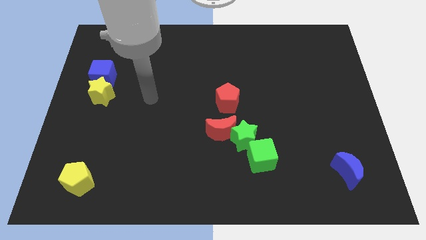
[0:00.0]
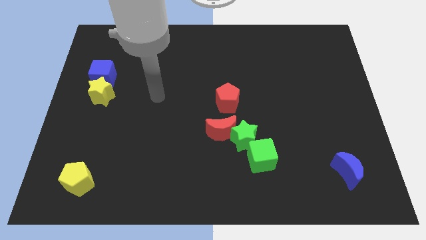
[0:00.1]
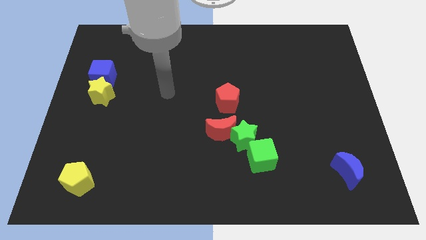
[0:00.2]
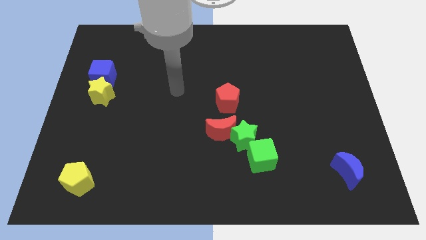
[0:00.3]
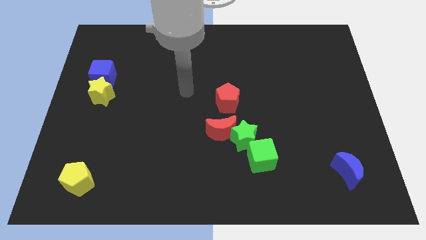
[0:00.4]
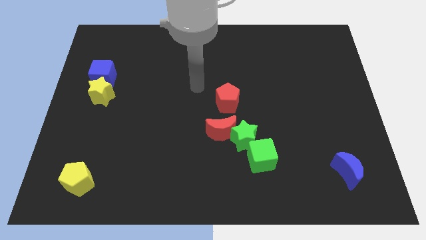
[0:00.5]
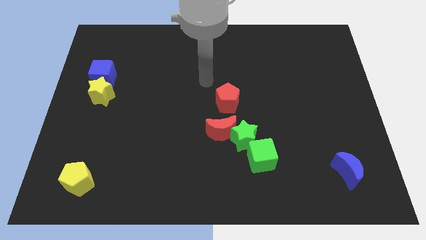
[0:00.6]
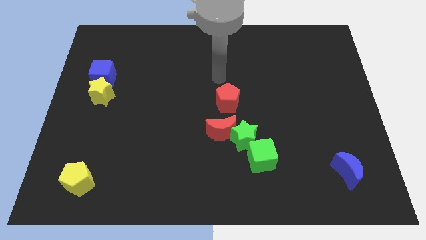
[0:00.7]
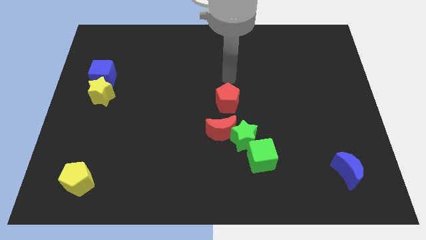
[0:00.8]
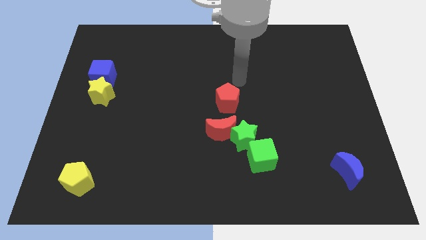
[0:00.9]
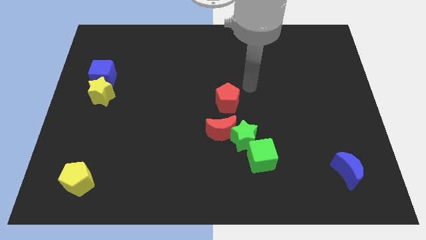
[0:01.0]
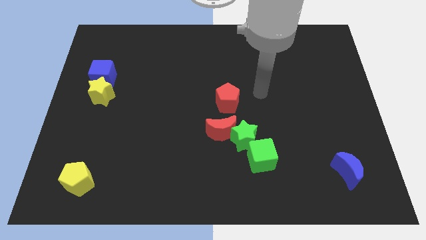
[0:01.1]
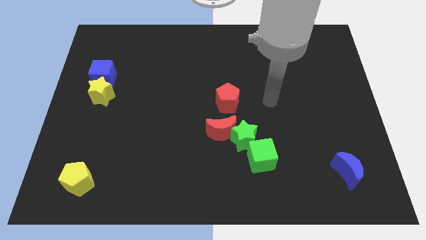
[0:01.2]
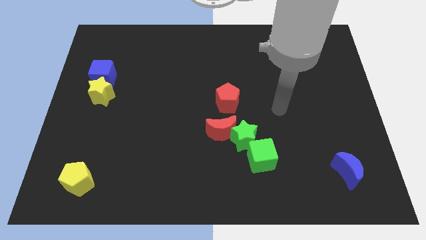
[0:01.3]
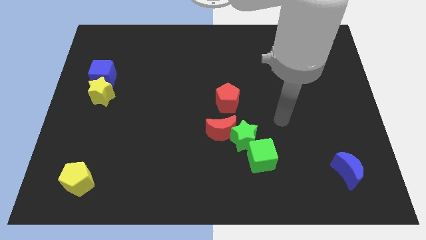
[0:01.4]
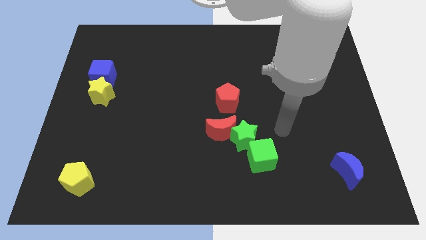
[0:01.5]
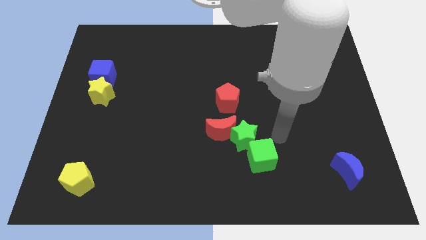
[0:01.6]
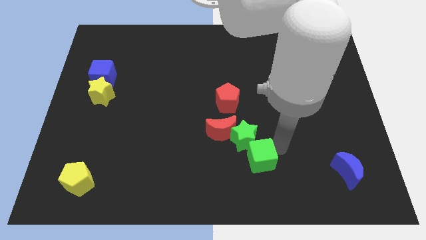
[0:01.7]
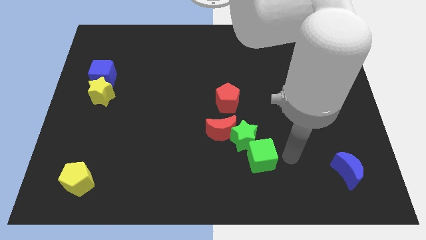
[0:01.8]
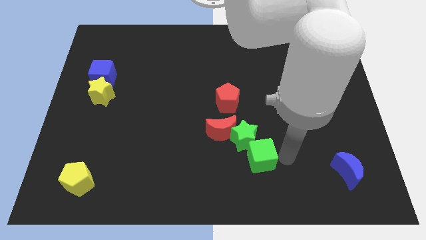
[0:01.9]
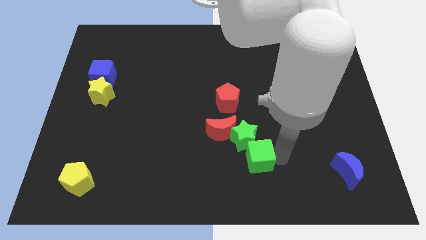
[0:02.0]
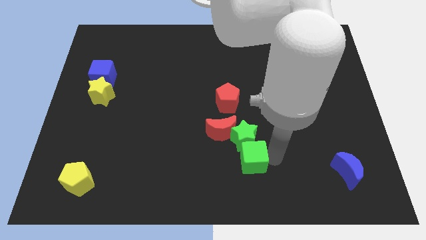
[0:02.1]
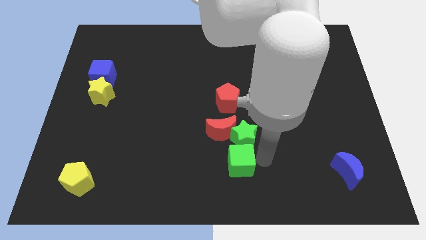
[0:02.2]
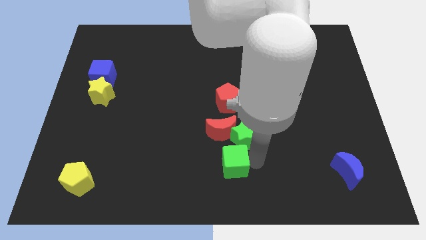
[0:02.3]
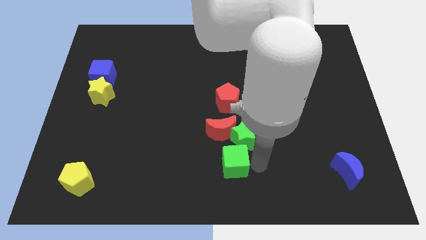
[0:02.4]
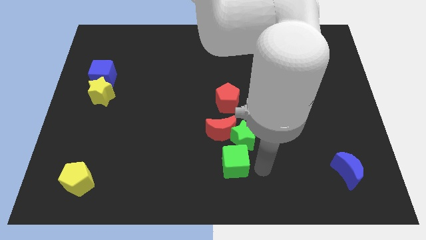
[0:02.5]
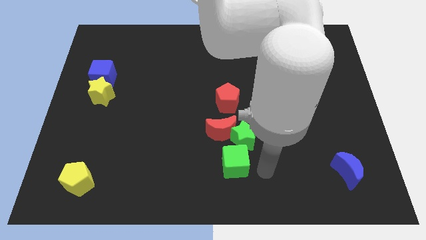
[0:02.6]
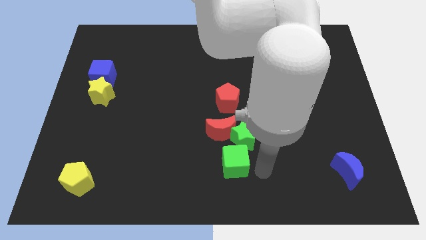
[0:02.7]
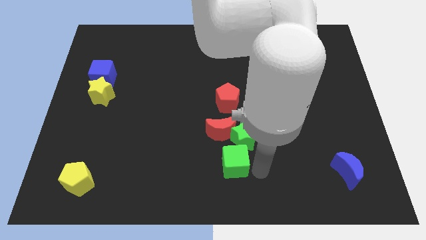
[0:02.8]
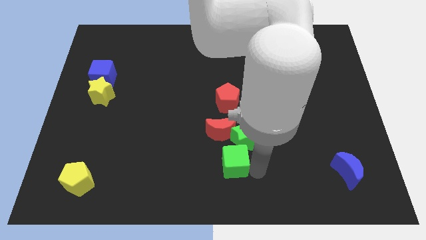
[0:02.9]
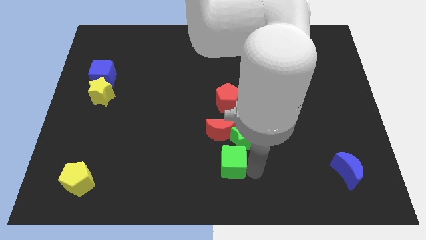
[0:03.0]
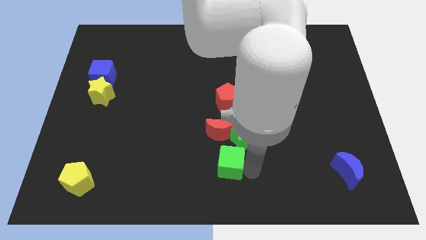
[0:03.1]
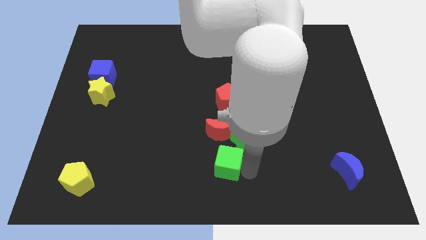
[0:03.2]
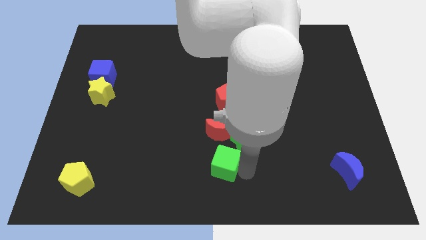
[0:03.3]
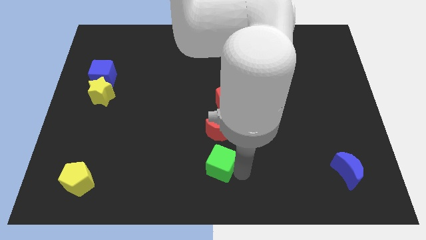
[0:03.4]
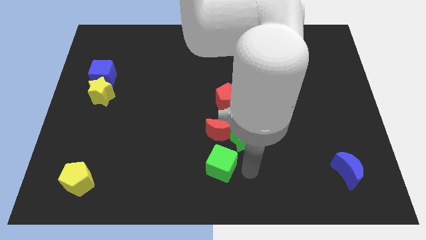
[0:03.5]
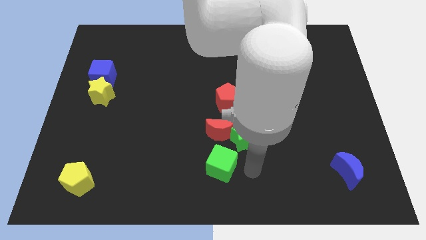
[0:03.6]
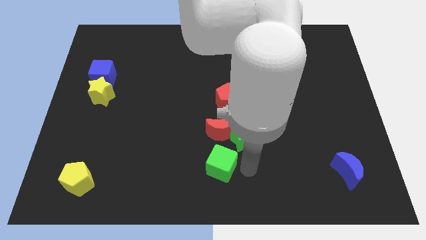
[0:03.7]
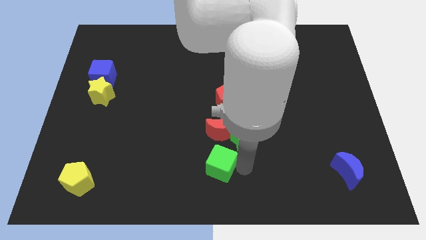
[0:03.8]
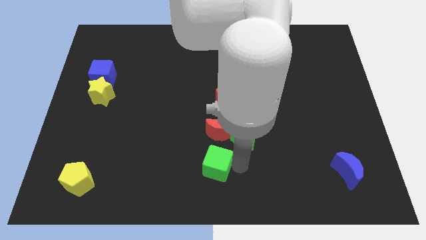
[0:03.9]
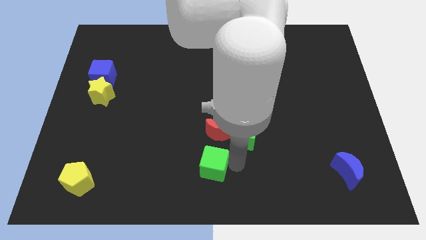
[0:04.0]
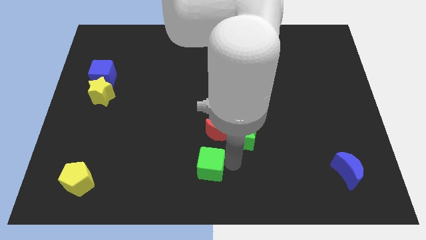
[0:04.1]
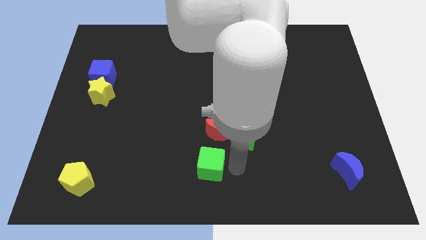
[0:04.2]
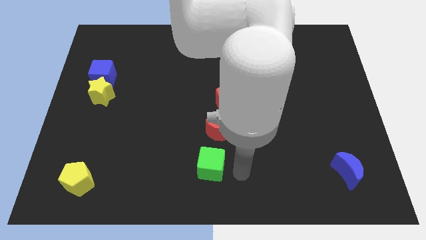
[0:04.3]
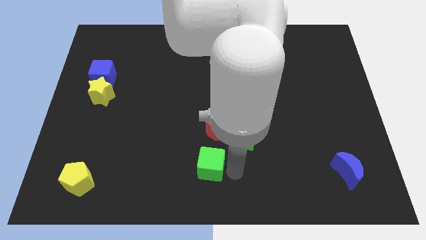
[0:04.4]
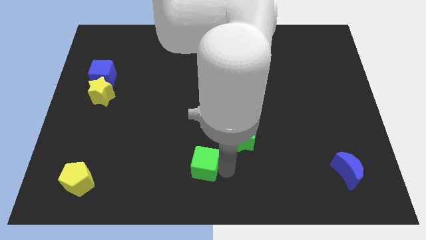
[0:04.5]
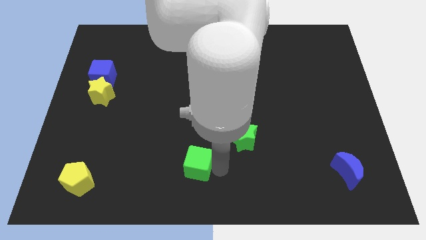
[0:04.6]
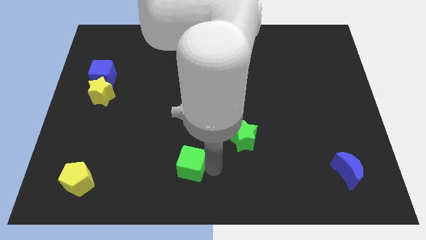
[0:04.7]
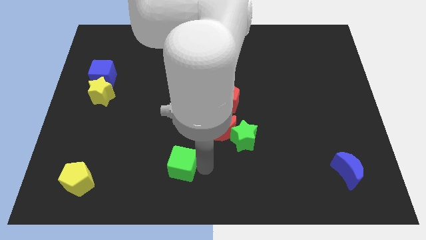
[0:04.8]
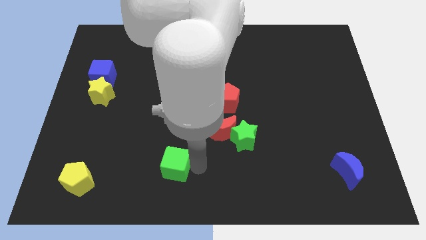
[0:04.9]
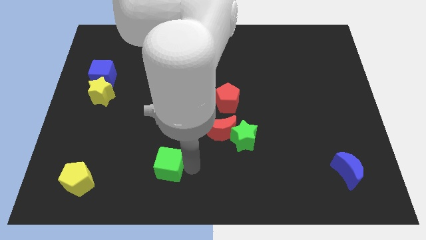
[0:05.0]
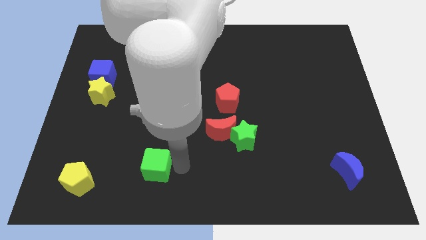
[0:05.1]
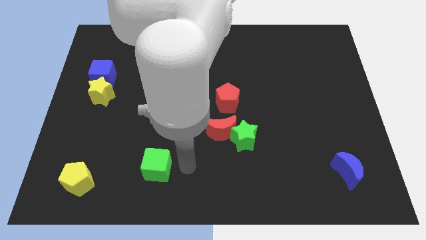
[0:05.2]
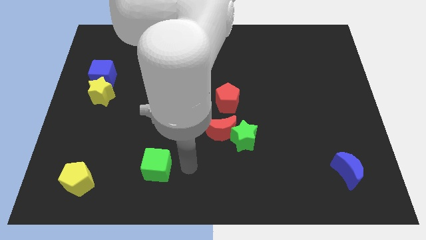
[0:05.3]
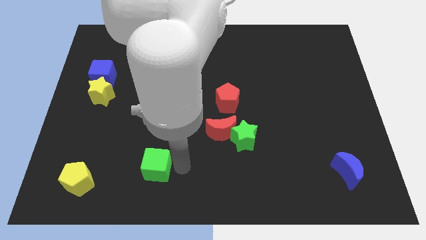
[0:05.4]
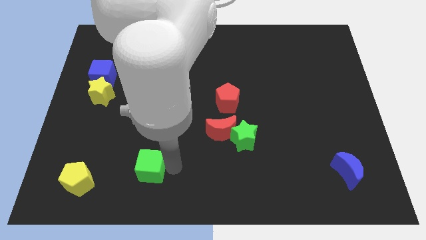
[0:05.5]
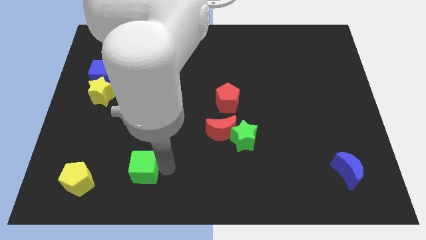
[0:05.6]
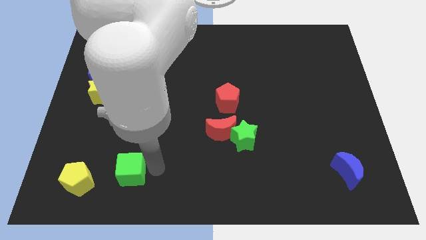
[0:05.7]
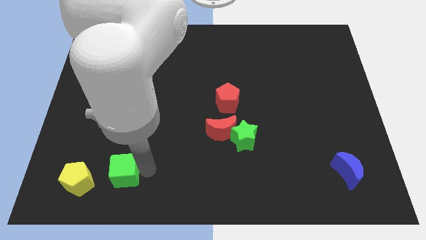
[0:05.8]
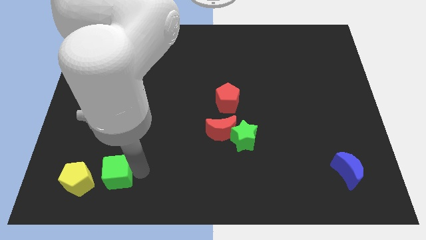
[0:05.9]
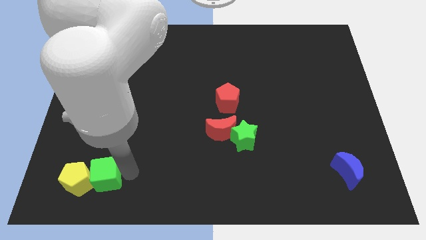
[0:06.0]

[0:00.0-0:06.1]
push the green cube to the yellow pentagon
